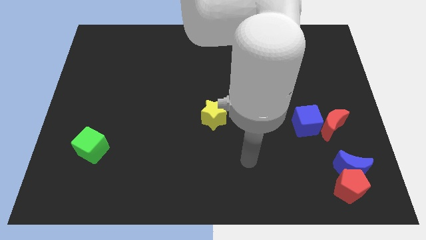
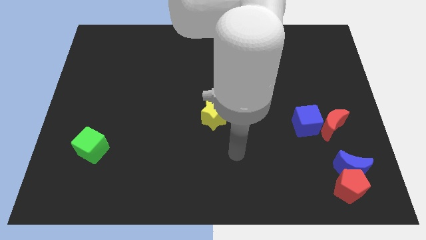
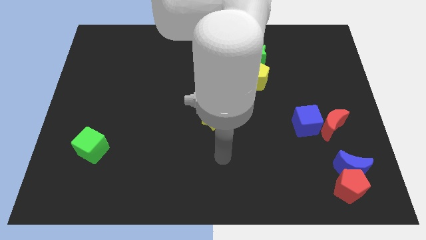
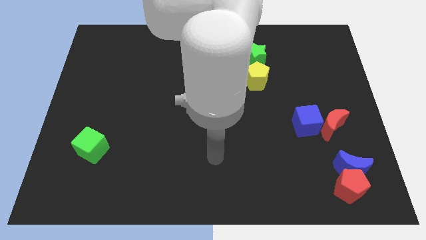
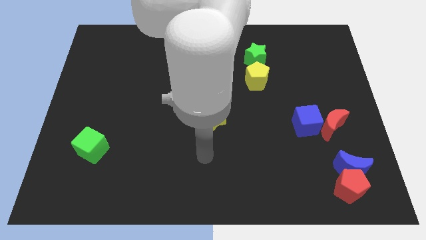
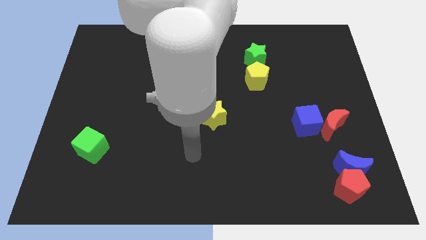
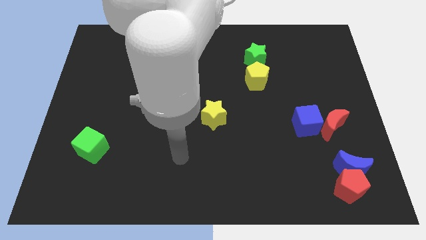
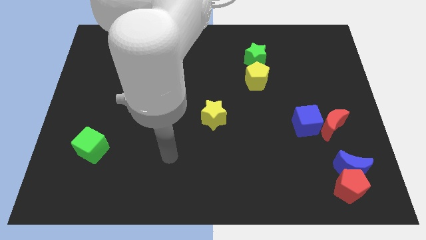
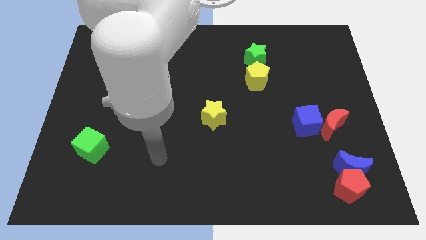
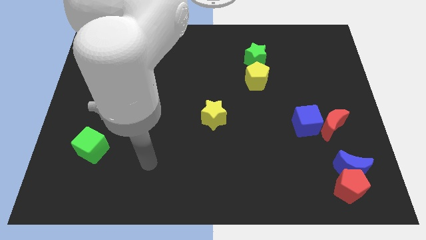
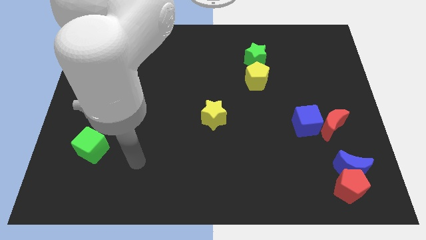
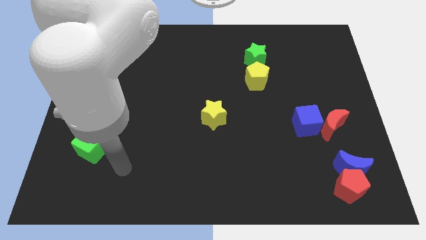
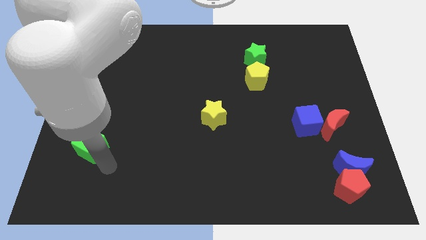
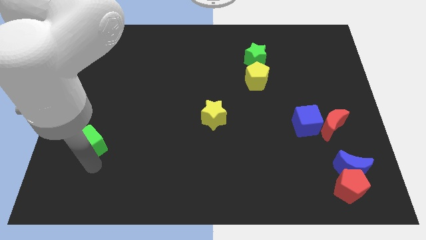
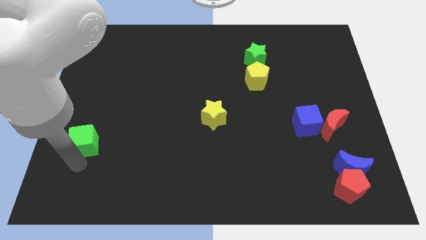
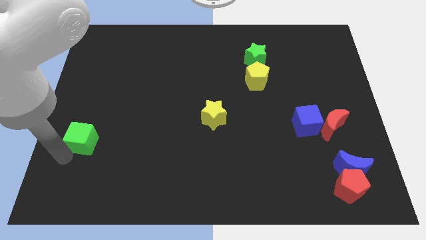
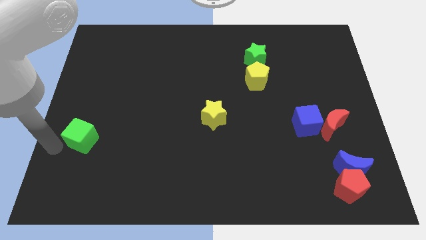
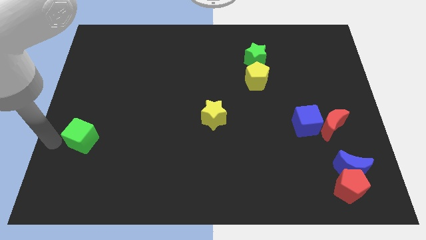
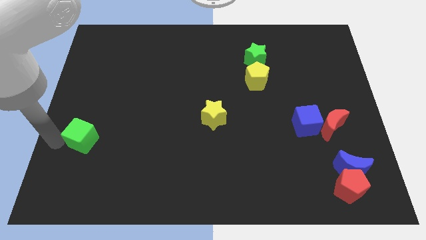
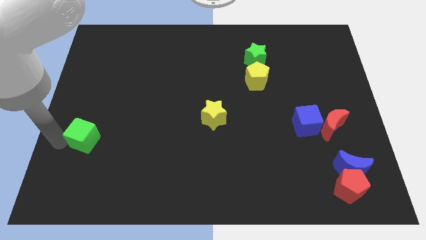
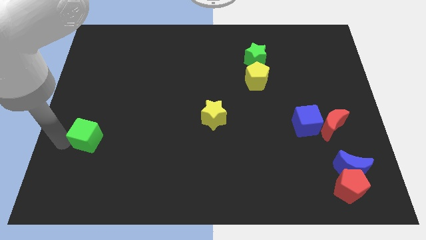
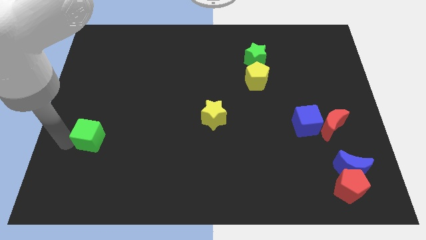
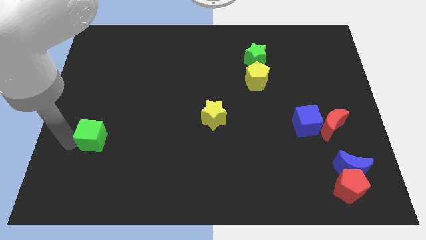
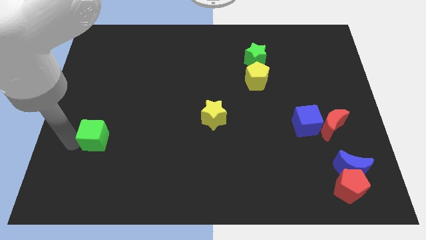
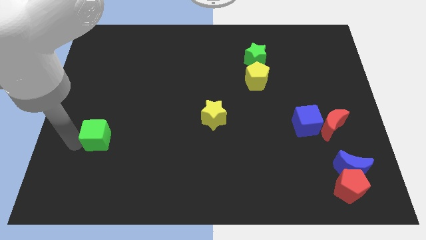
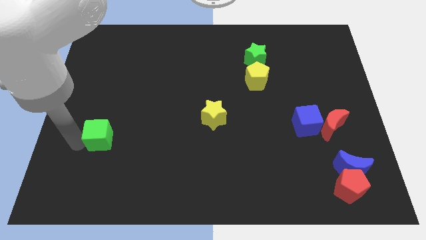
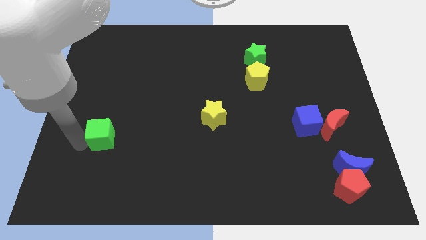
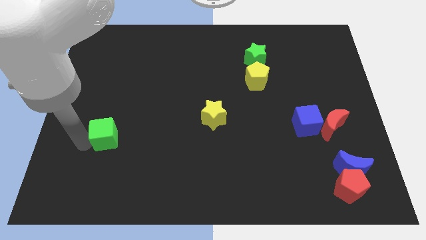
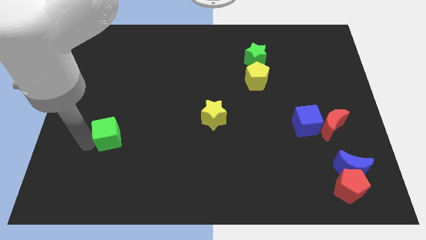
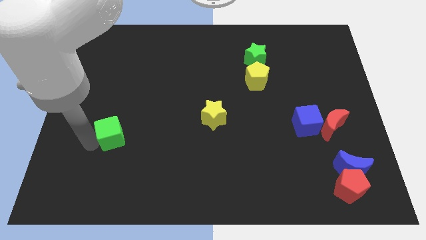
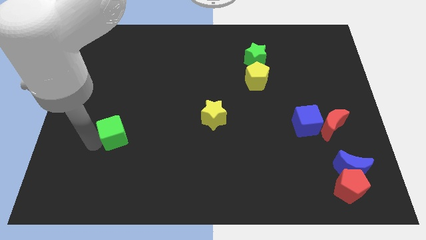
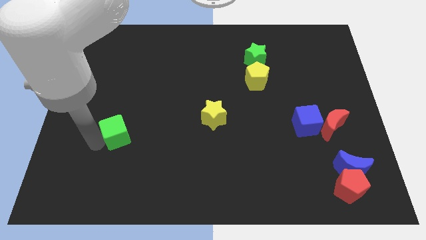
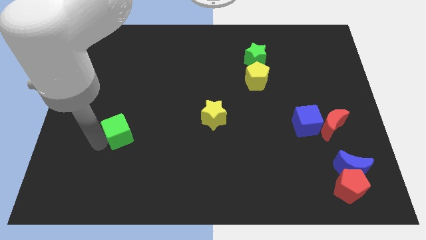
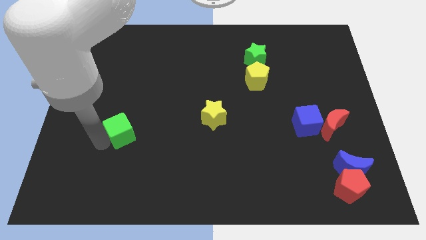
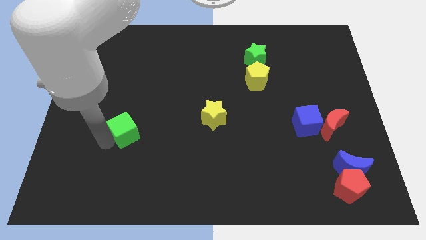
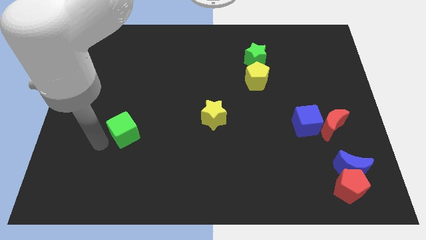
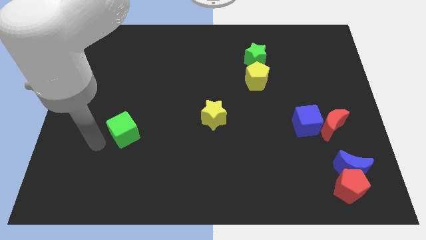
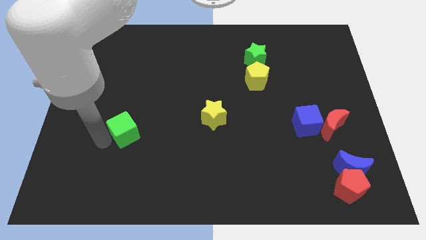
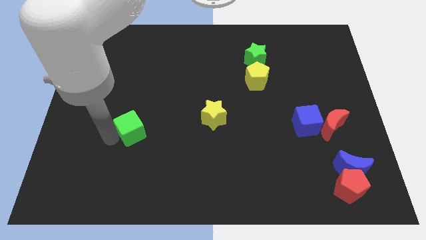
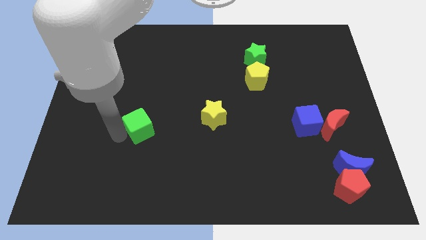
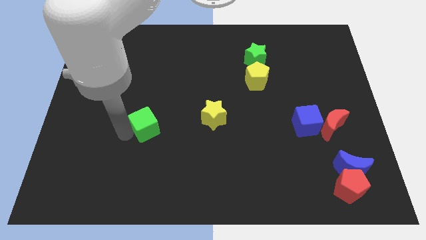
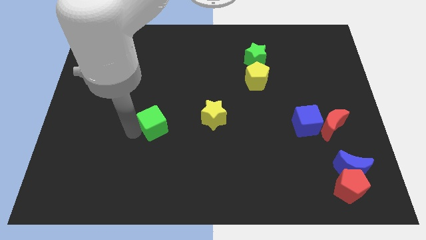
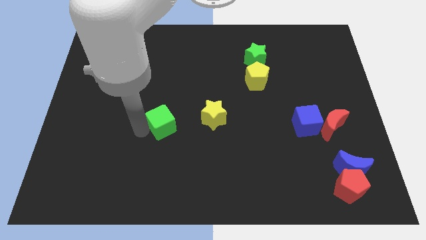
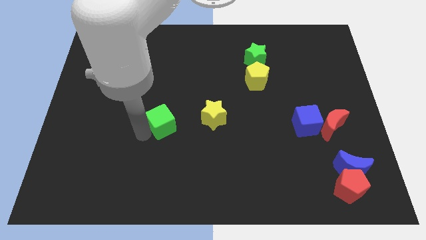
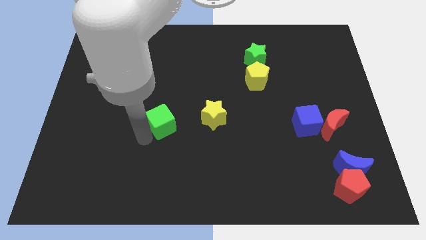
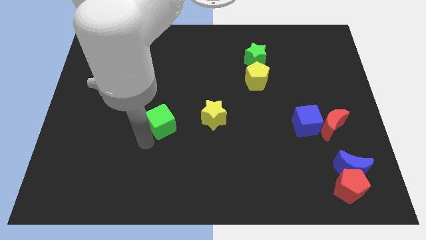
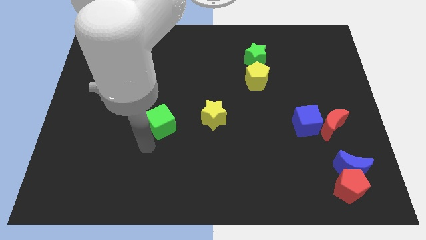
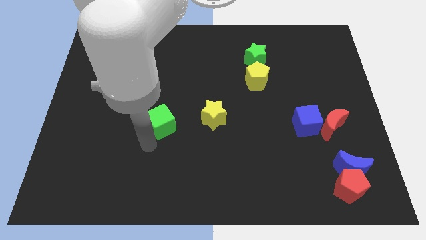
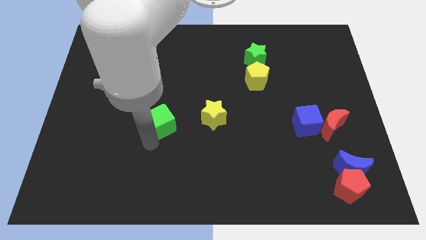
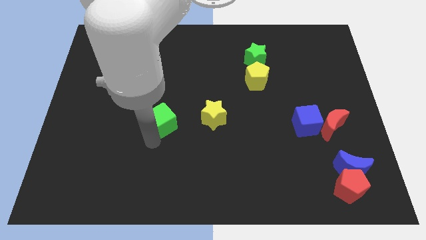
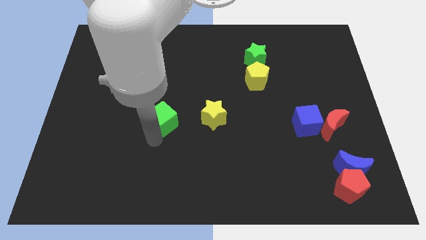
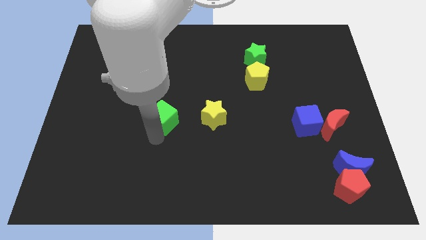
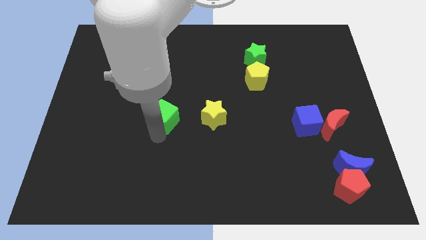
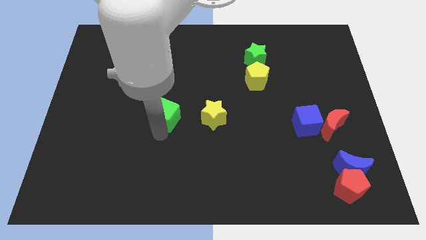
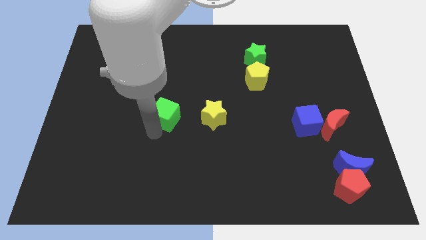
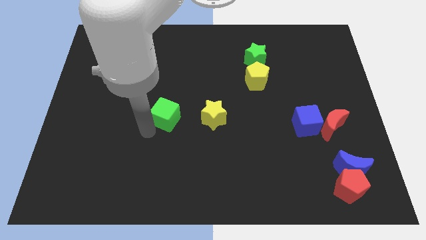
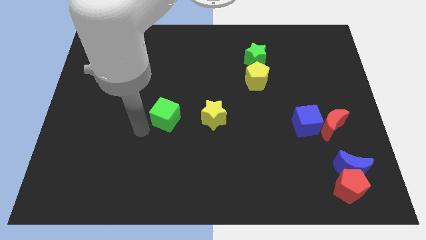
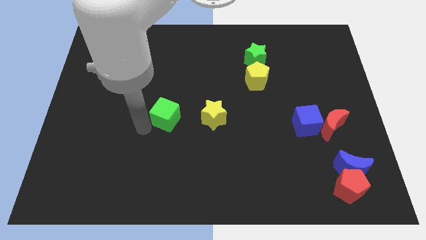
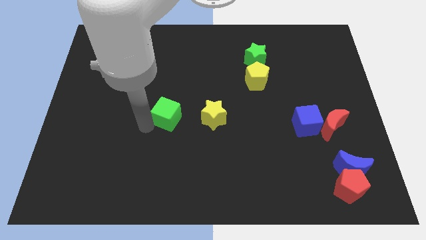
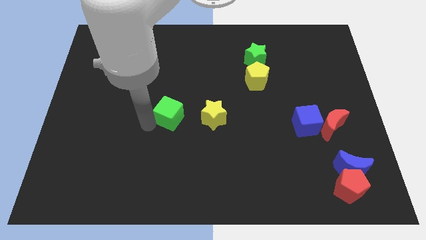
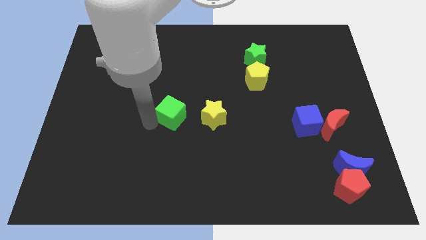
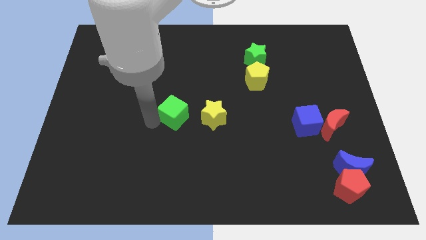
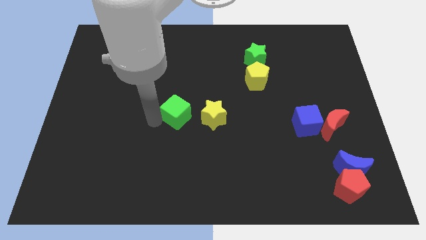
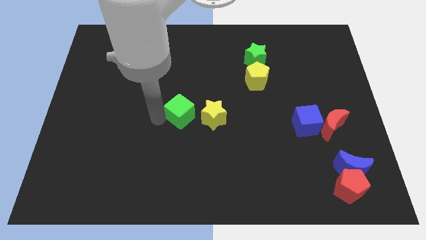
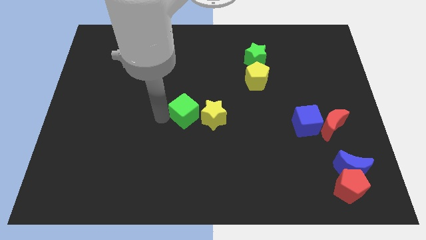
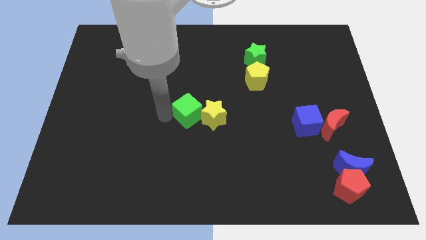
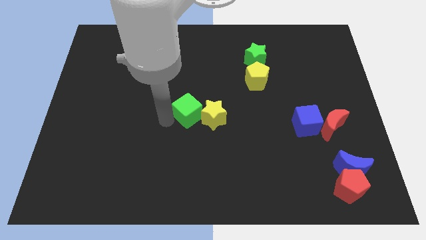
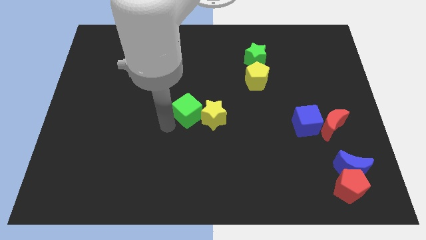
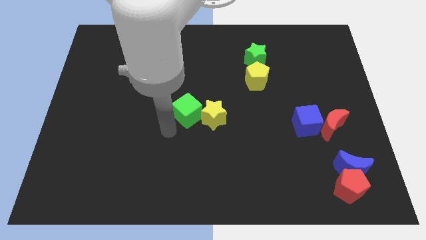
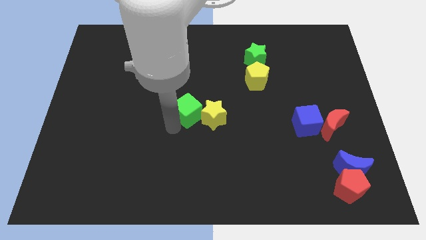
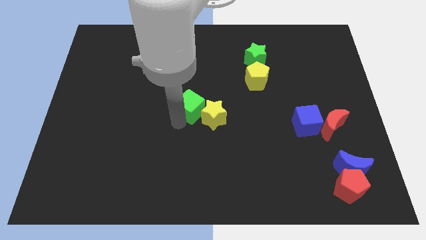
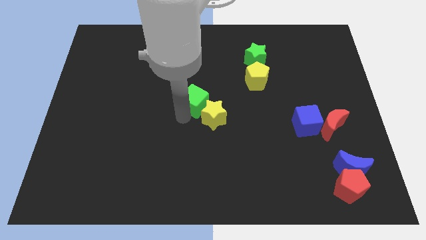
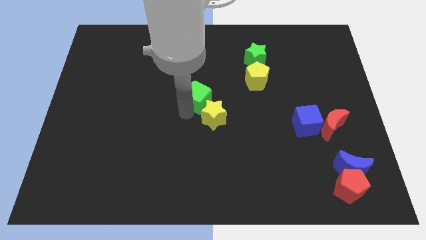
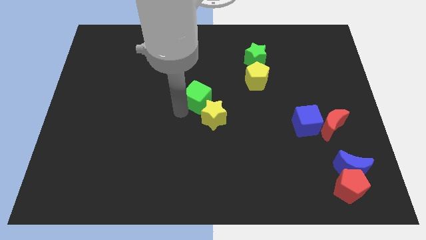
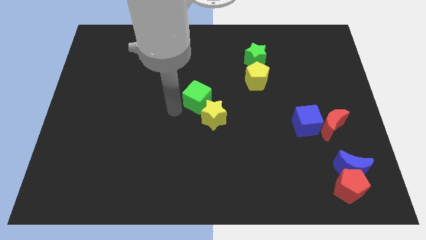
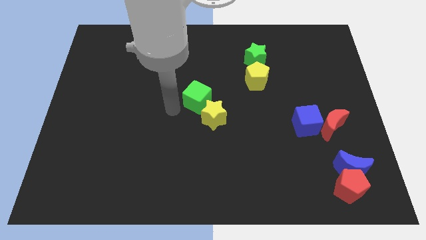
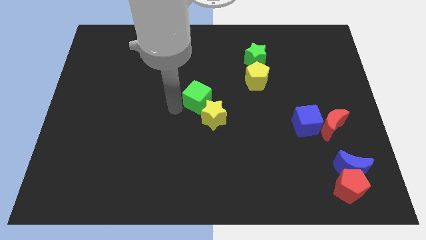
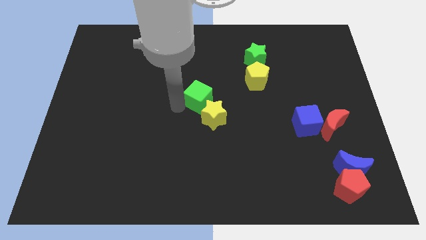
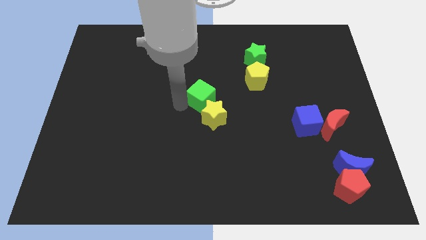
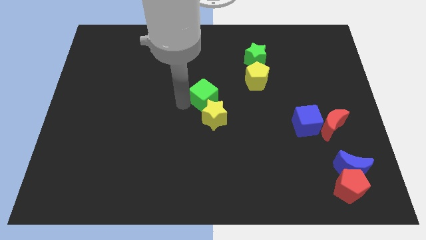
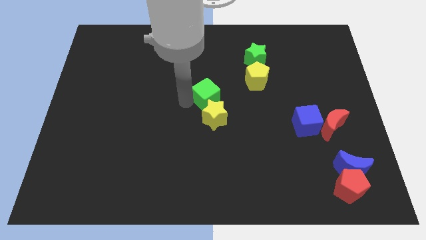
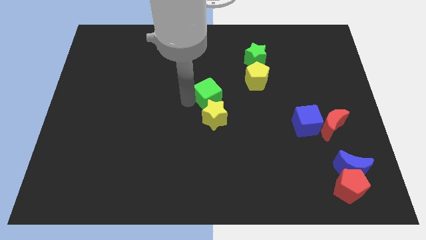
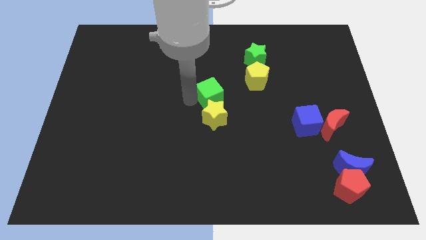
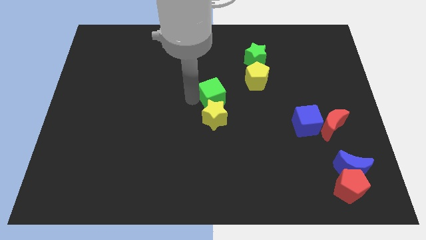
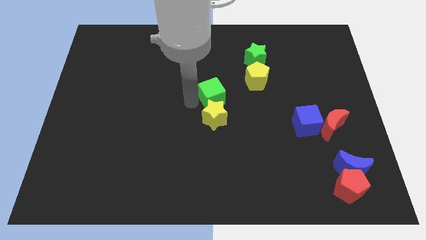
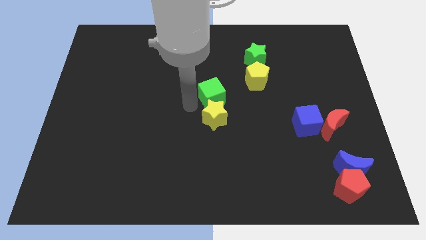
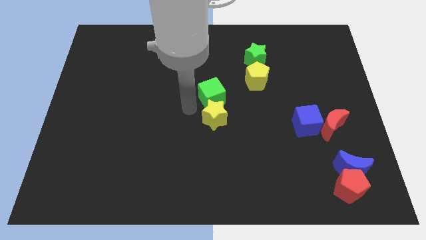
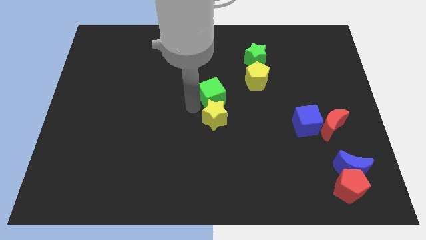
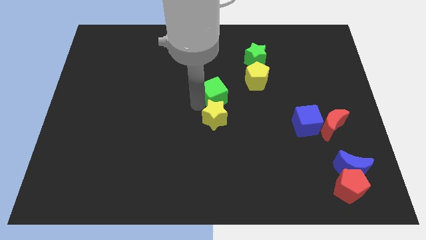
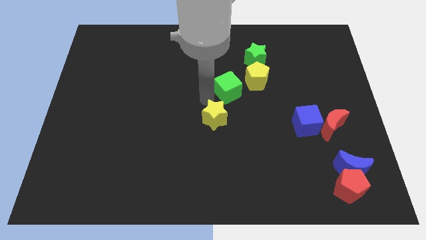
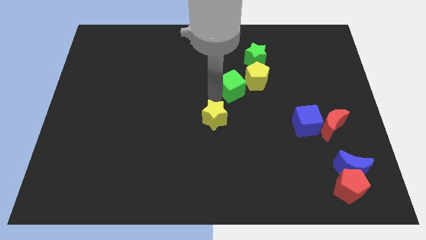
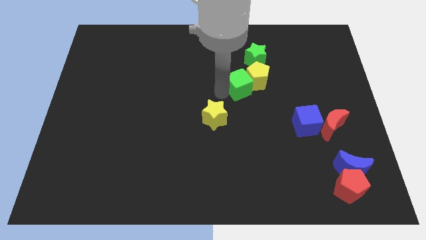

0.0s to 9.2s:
put the green cube close to the yellow pentagon
